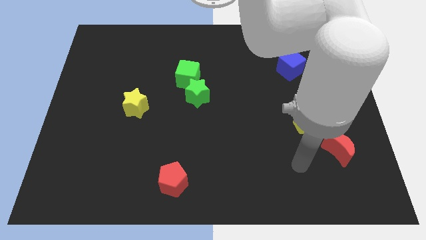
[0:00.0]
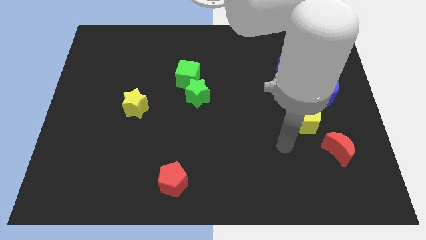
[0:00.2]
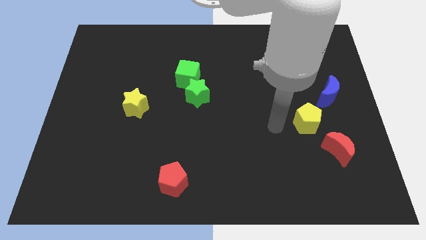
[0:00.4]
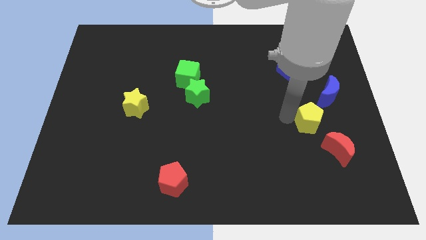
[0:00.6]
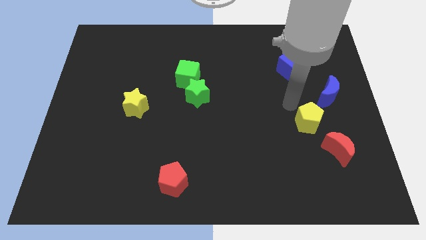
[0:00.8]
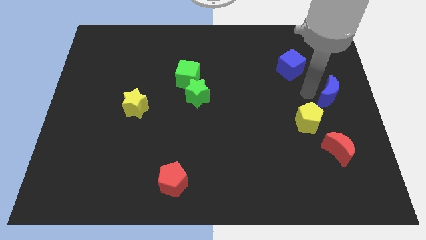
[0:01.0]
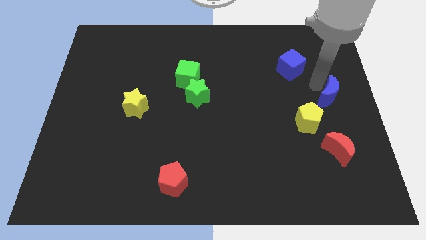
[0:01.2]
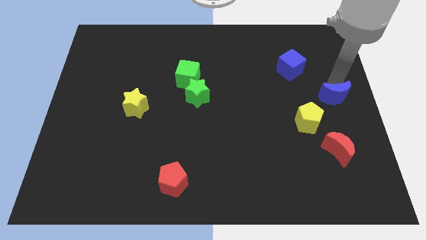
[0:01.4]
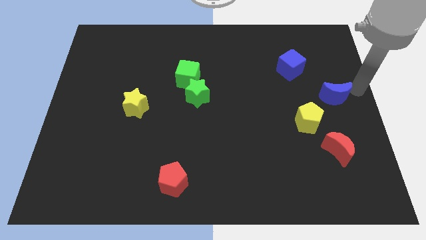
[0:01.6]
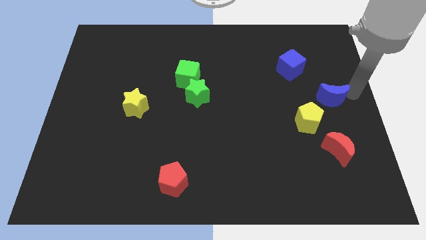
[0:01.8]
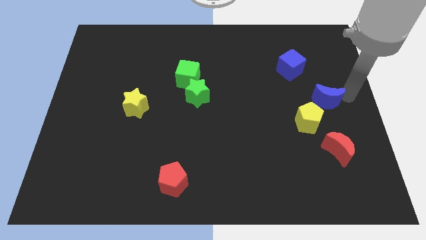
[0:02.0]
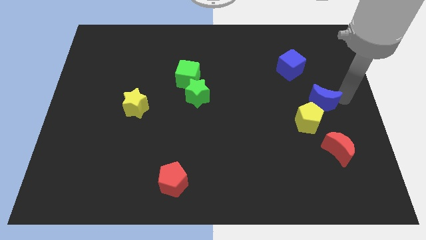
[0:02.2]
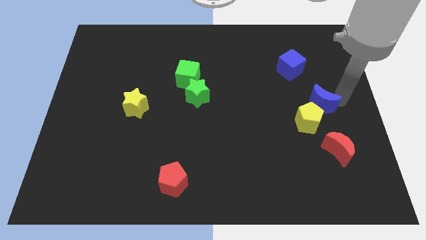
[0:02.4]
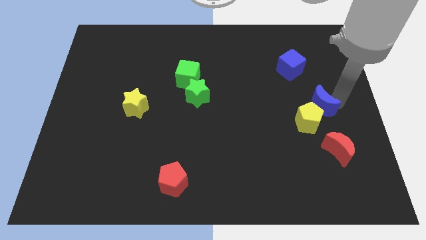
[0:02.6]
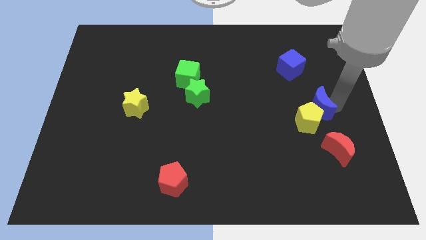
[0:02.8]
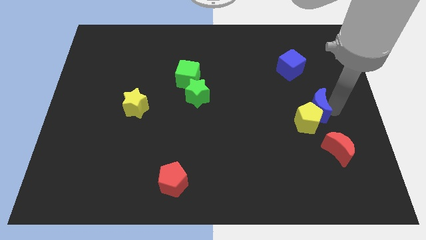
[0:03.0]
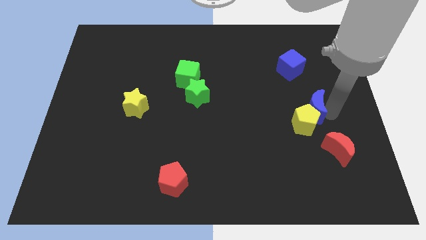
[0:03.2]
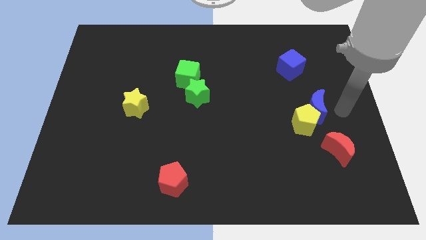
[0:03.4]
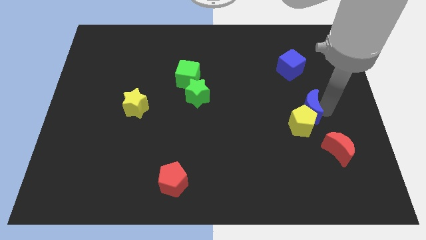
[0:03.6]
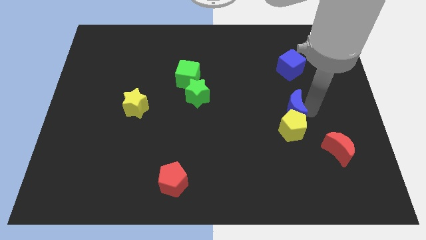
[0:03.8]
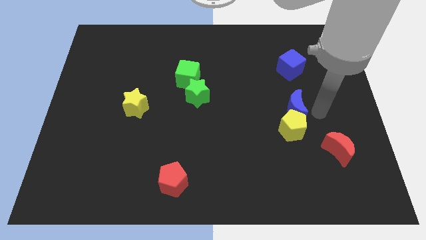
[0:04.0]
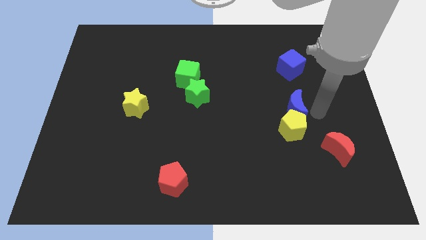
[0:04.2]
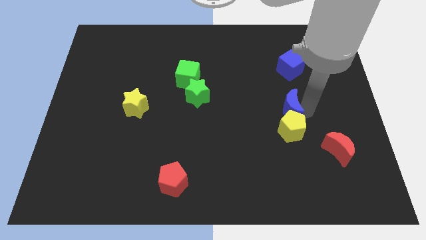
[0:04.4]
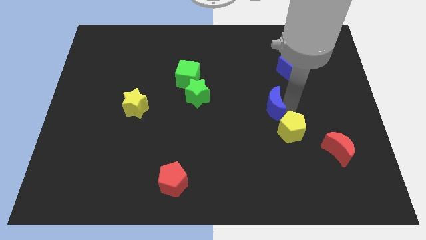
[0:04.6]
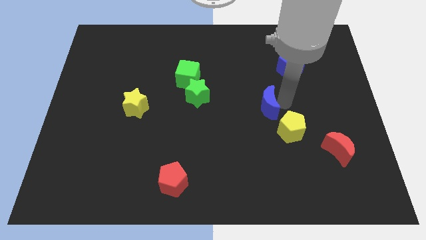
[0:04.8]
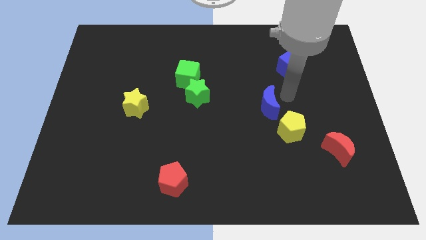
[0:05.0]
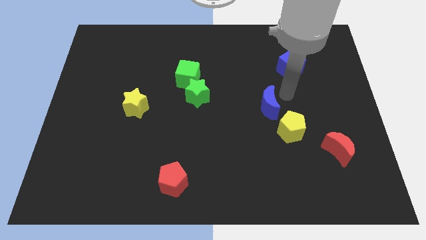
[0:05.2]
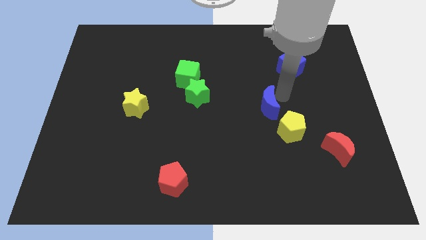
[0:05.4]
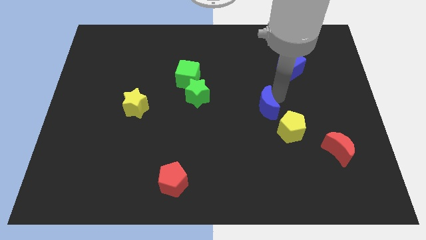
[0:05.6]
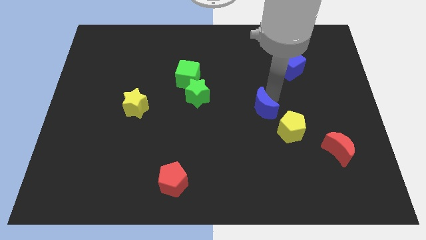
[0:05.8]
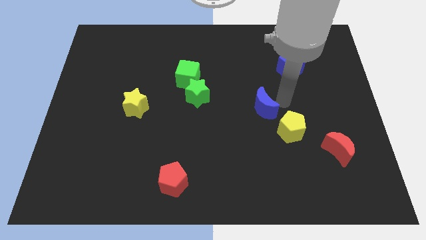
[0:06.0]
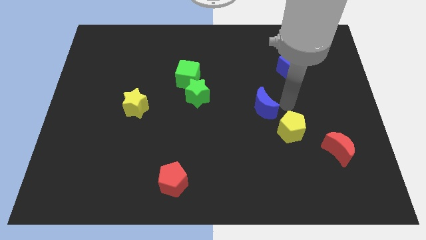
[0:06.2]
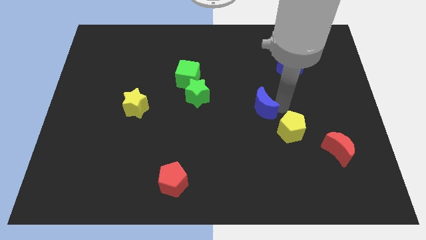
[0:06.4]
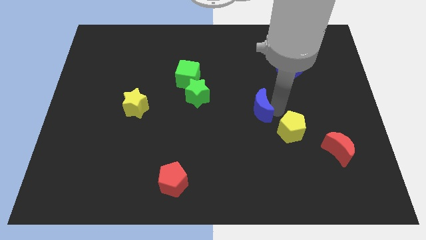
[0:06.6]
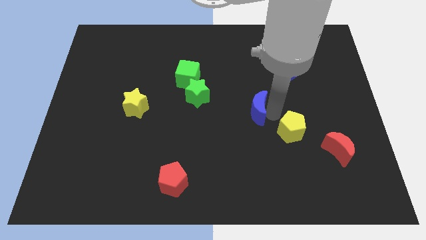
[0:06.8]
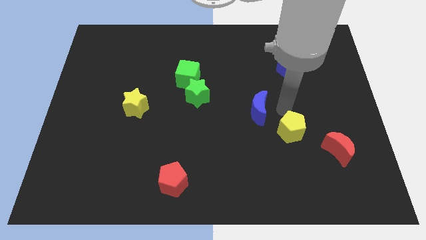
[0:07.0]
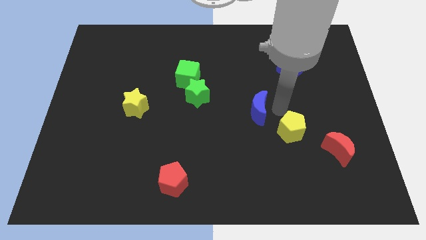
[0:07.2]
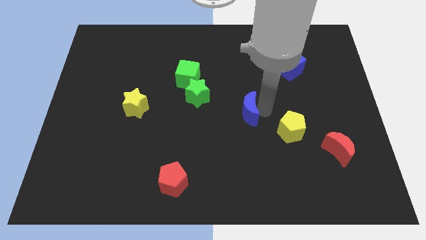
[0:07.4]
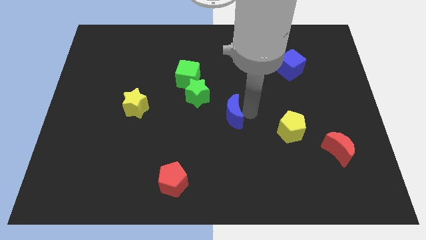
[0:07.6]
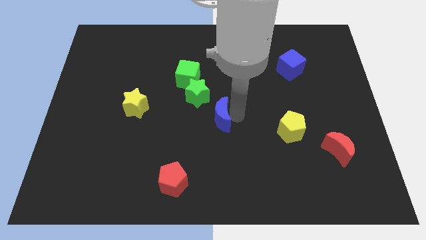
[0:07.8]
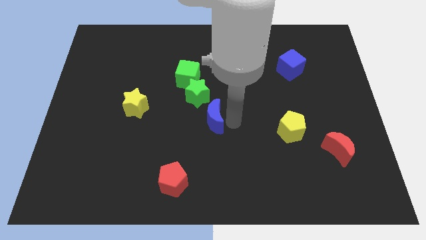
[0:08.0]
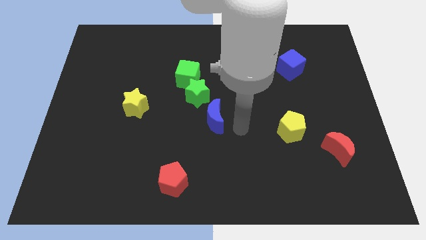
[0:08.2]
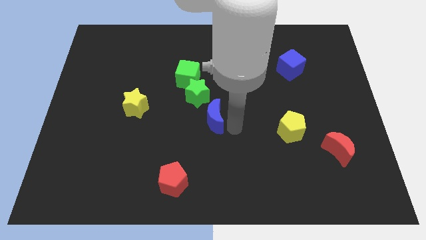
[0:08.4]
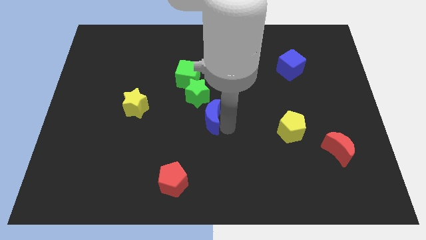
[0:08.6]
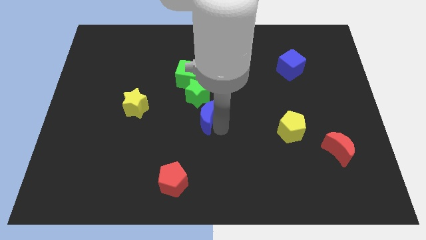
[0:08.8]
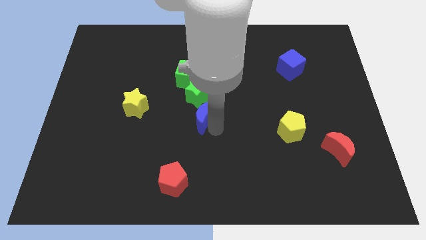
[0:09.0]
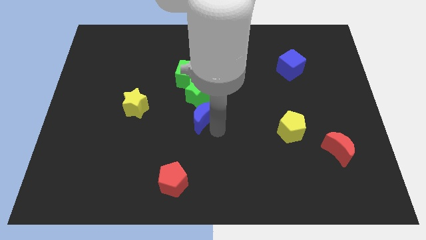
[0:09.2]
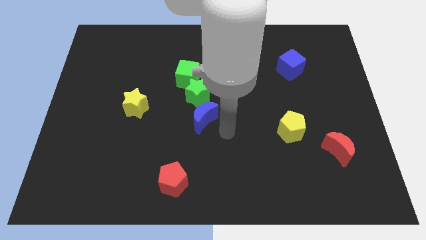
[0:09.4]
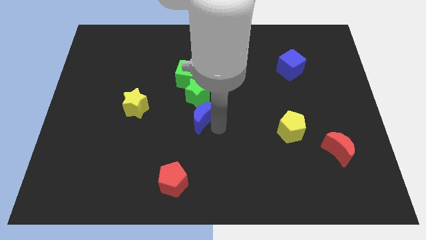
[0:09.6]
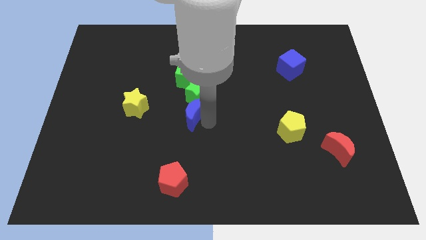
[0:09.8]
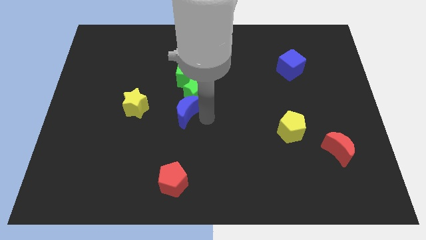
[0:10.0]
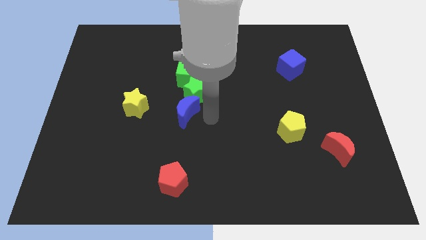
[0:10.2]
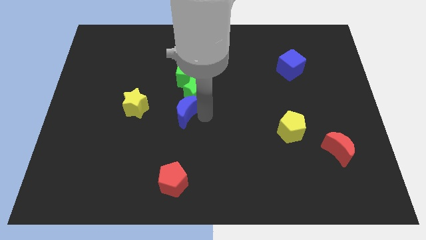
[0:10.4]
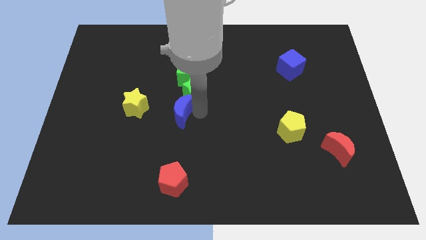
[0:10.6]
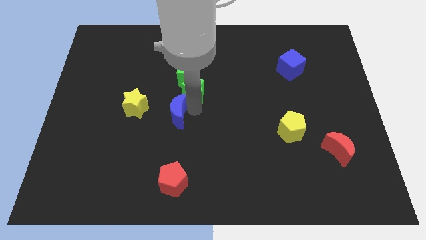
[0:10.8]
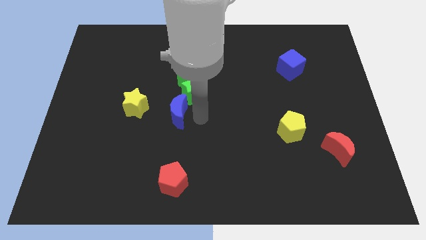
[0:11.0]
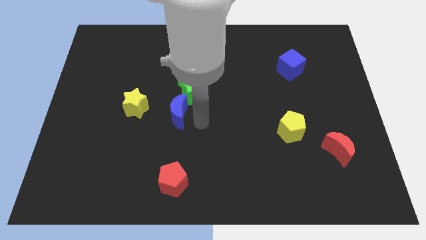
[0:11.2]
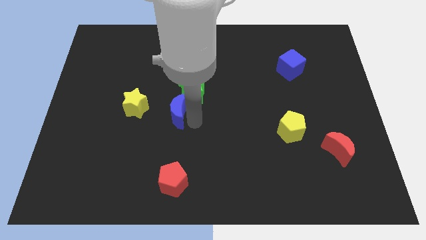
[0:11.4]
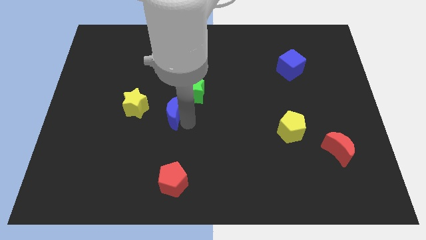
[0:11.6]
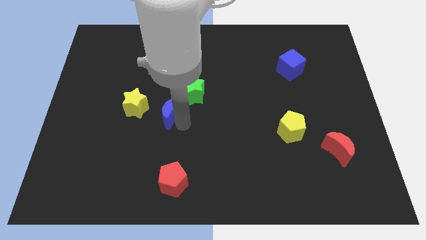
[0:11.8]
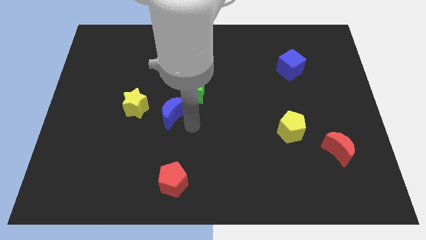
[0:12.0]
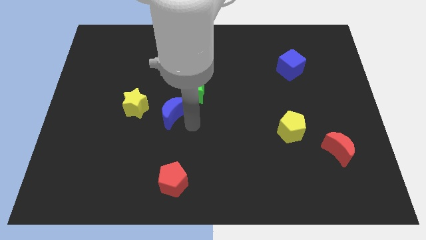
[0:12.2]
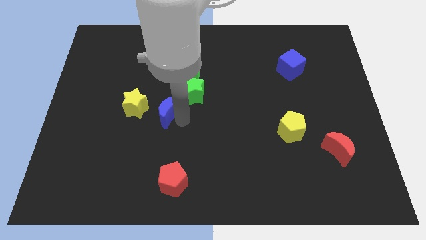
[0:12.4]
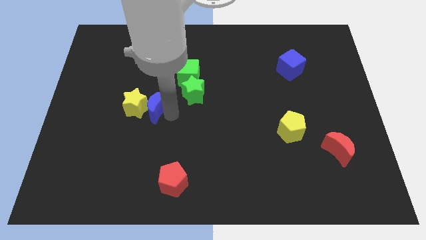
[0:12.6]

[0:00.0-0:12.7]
slide the blue moon close to the yellow star
